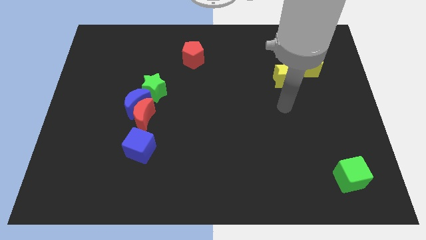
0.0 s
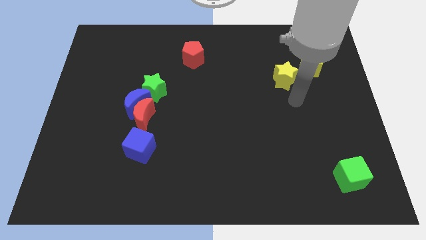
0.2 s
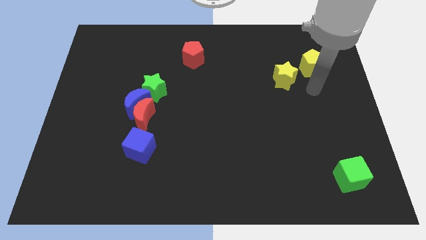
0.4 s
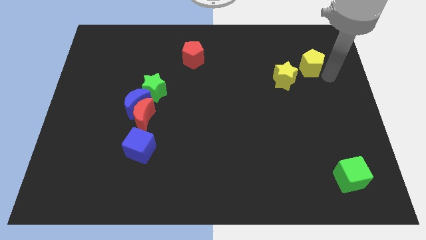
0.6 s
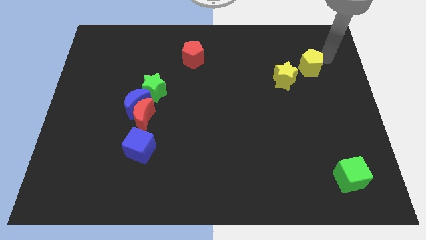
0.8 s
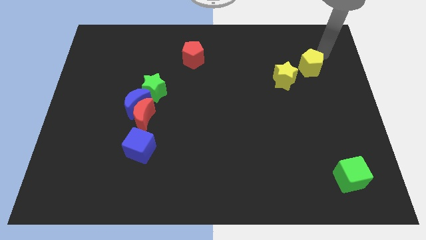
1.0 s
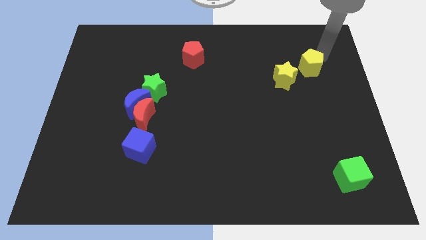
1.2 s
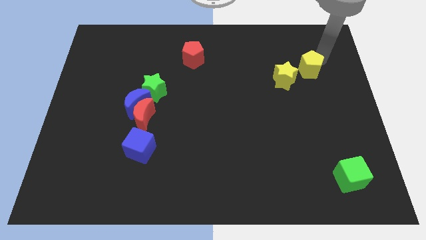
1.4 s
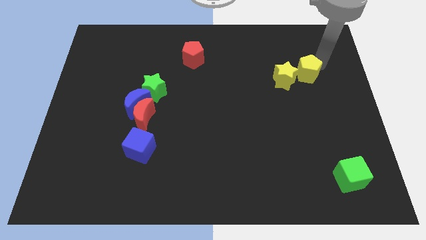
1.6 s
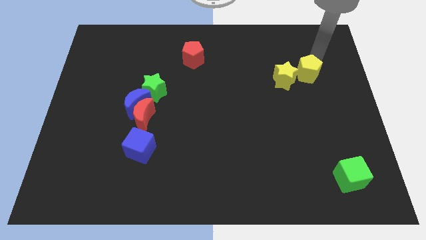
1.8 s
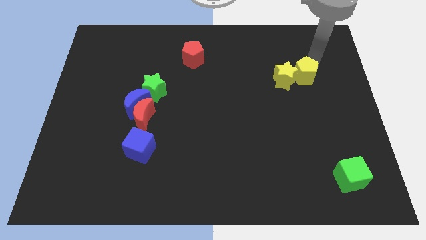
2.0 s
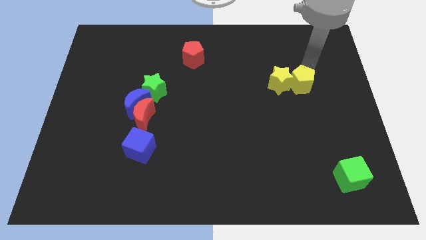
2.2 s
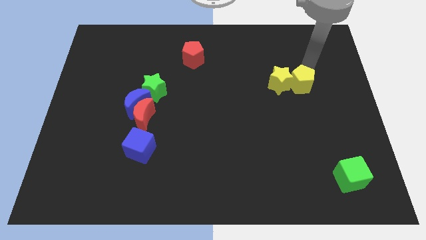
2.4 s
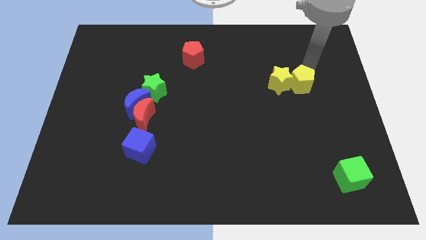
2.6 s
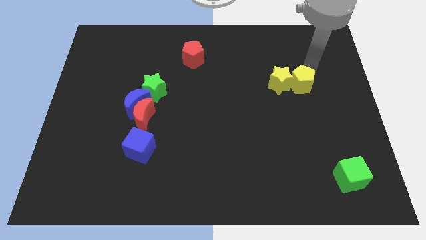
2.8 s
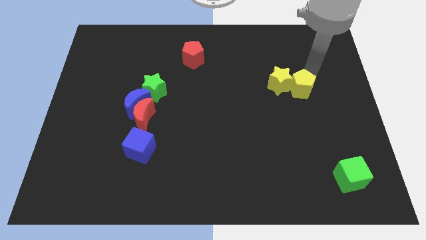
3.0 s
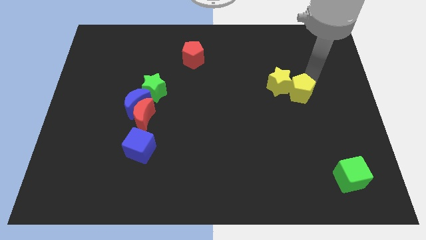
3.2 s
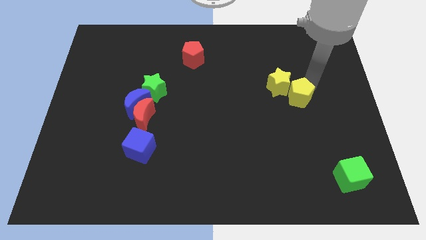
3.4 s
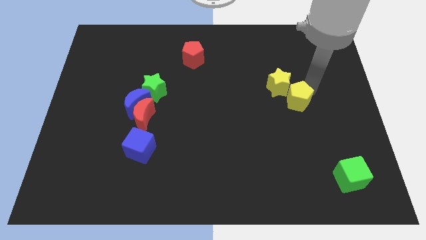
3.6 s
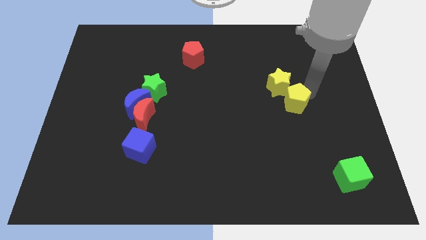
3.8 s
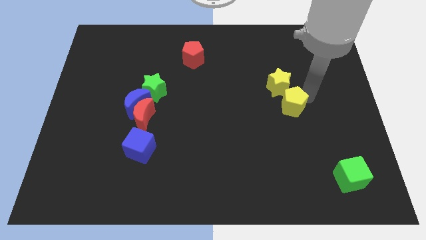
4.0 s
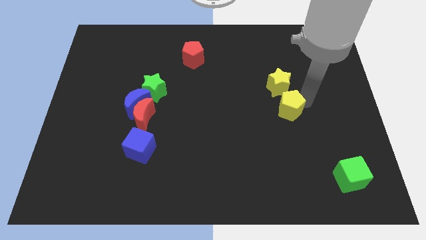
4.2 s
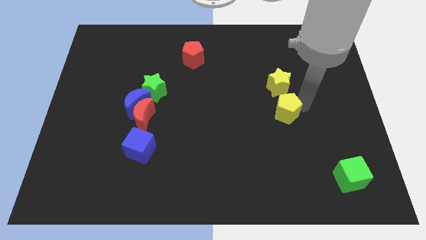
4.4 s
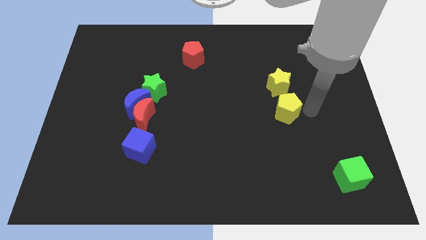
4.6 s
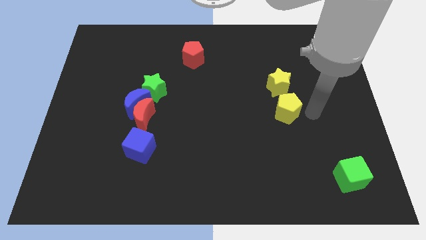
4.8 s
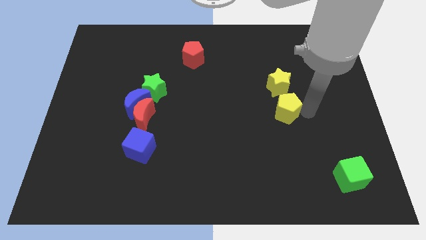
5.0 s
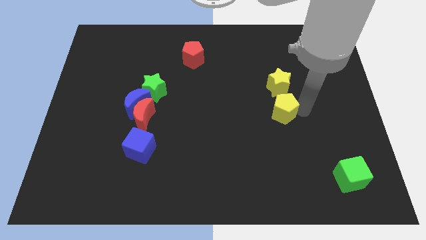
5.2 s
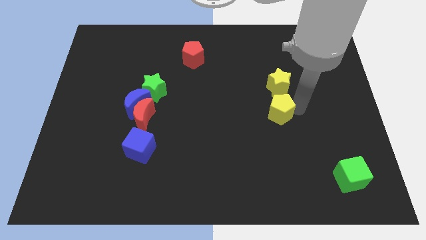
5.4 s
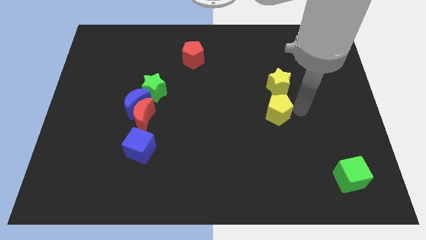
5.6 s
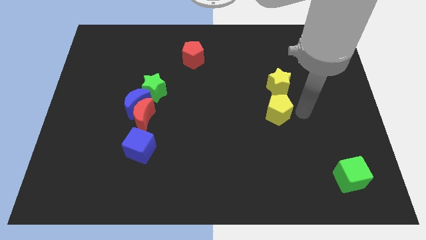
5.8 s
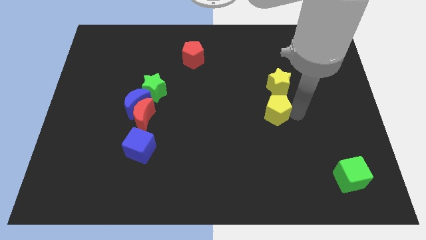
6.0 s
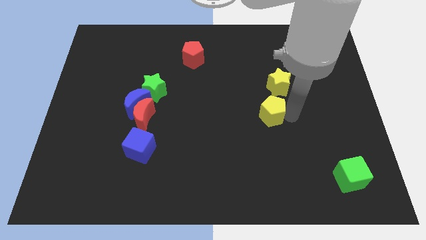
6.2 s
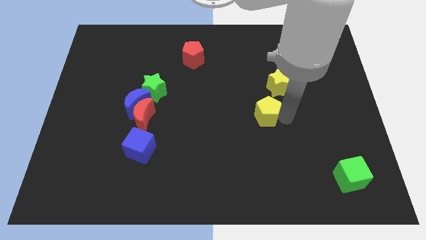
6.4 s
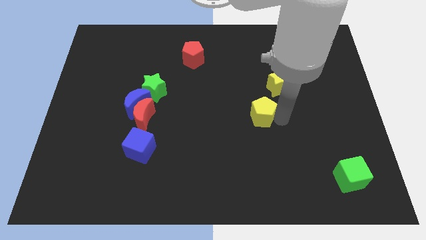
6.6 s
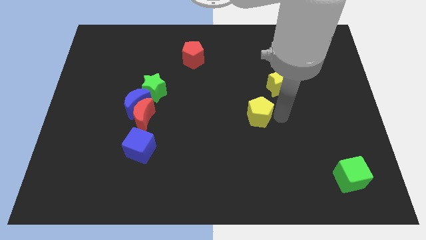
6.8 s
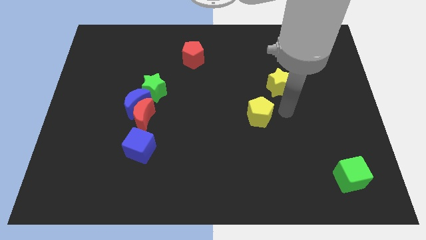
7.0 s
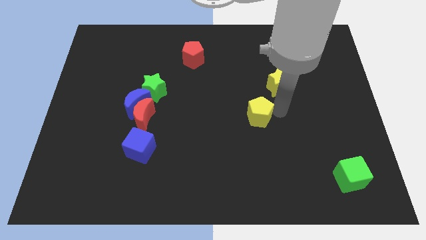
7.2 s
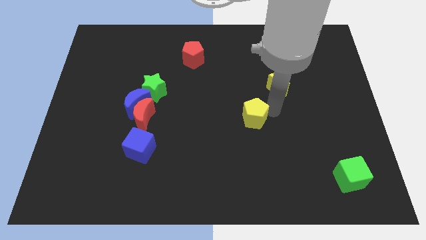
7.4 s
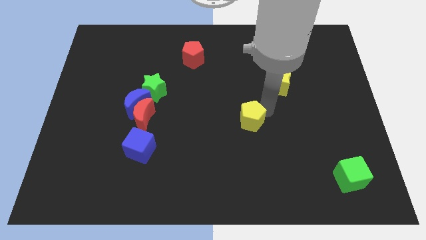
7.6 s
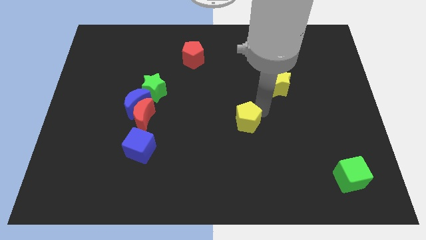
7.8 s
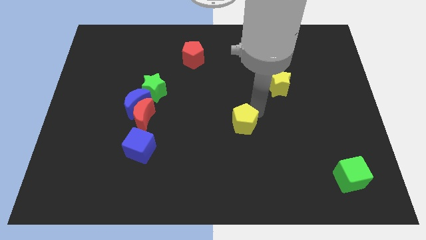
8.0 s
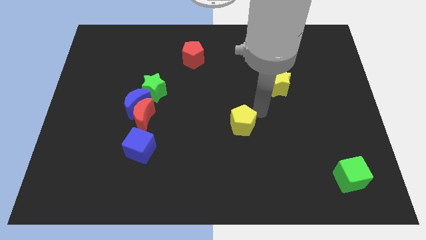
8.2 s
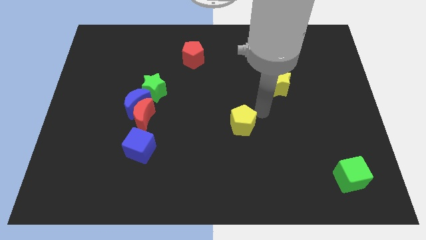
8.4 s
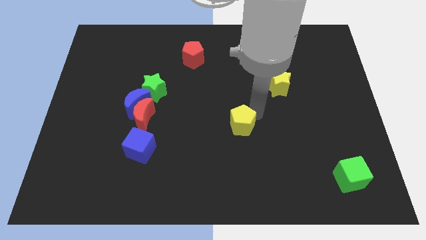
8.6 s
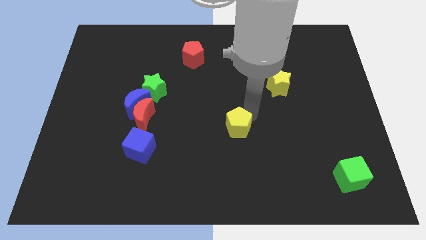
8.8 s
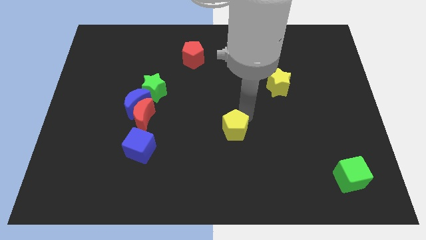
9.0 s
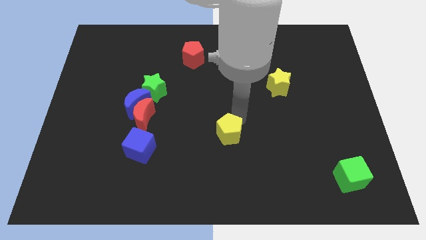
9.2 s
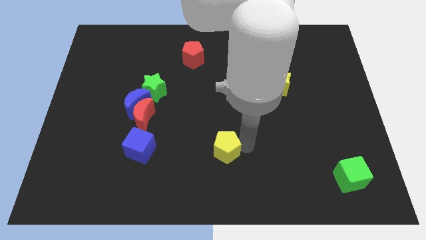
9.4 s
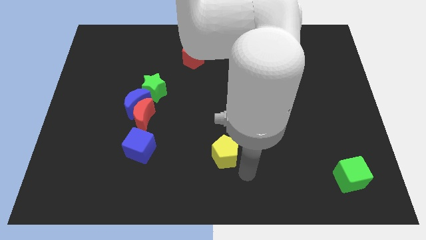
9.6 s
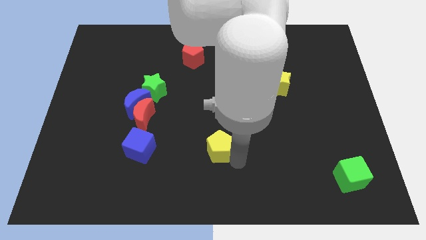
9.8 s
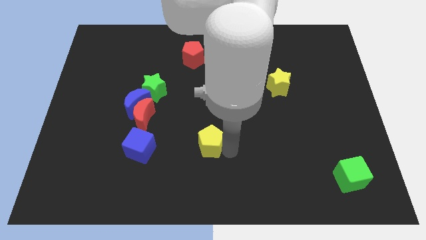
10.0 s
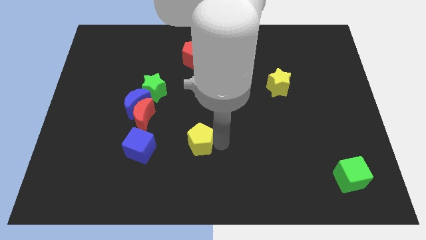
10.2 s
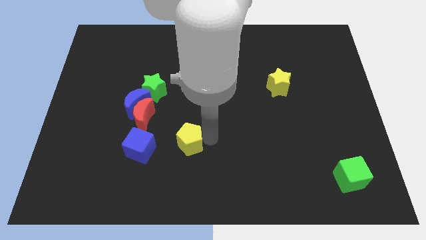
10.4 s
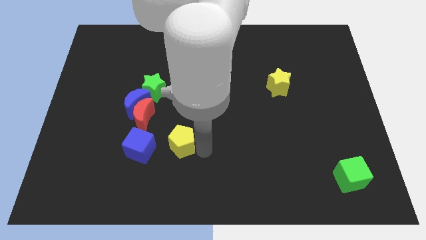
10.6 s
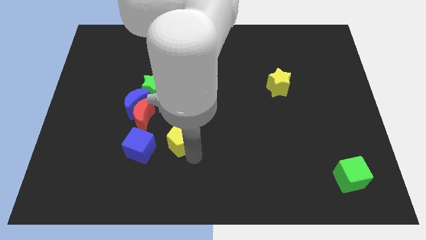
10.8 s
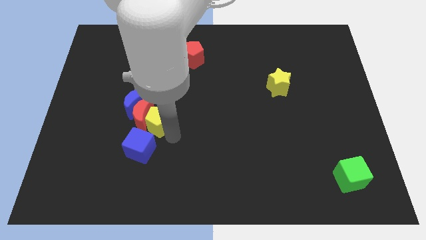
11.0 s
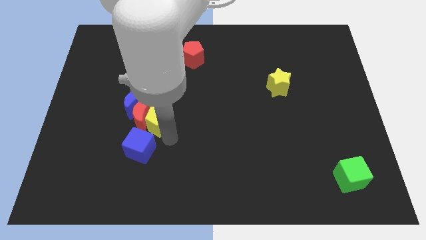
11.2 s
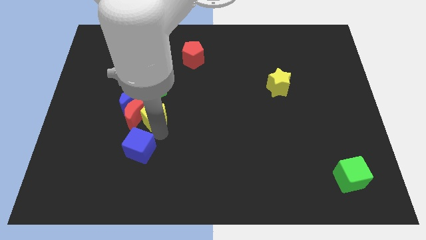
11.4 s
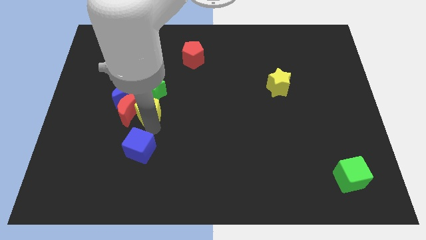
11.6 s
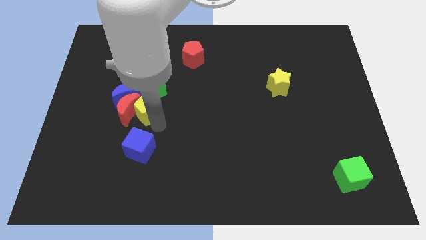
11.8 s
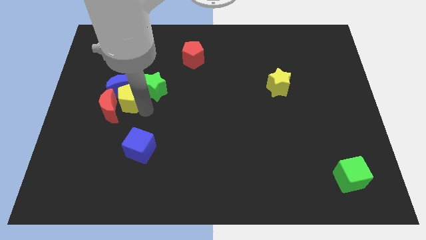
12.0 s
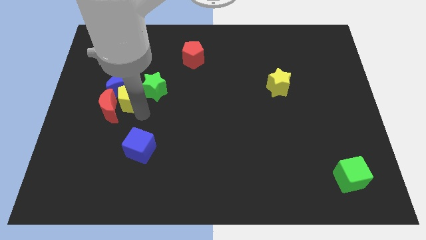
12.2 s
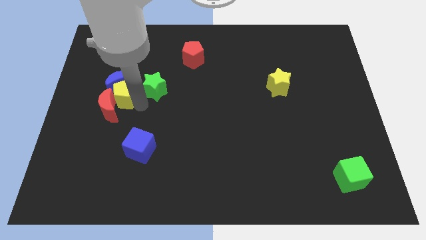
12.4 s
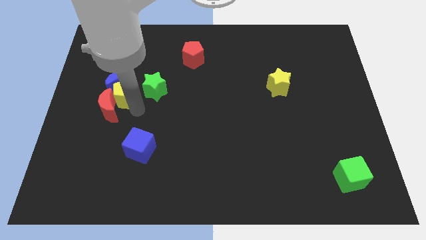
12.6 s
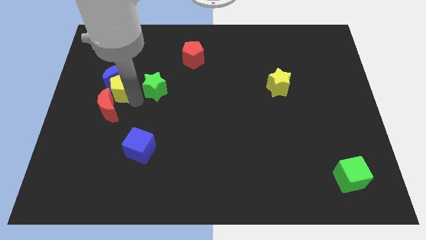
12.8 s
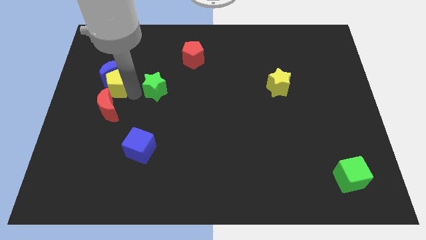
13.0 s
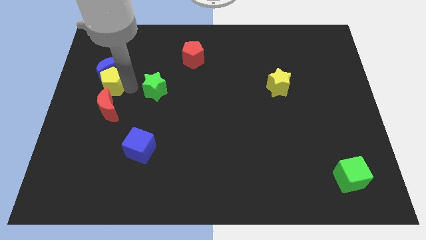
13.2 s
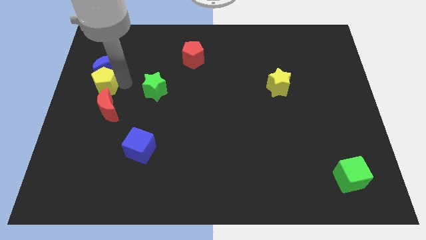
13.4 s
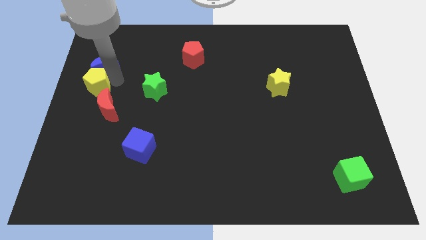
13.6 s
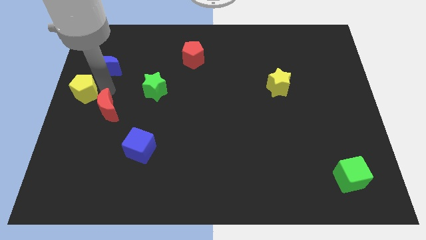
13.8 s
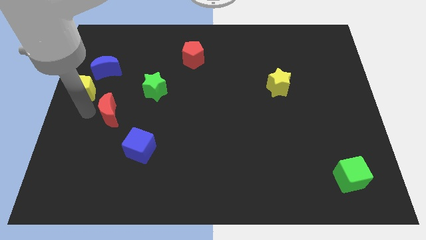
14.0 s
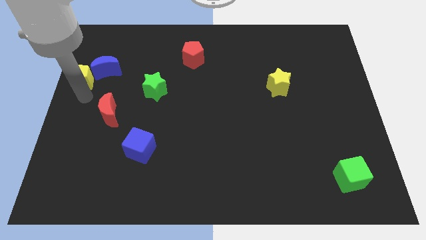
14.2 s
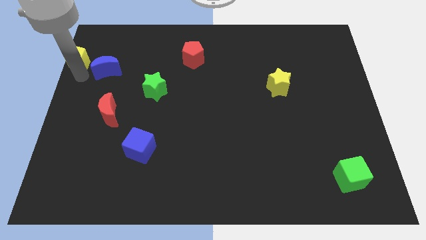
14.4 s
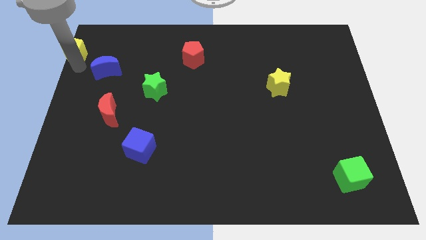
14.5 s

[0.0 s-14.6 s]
push the yellow pentagon to the upper left corner
